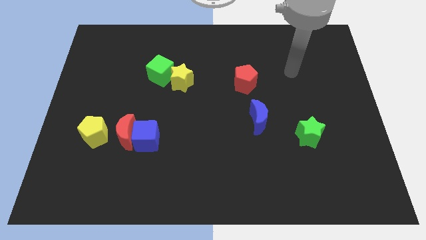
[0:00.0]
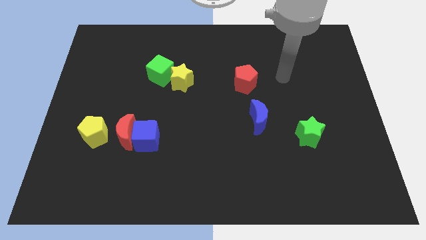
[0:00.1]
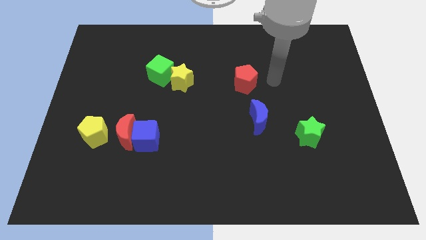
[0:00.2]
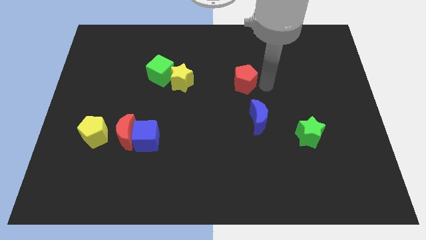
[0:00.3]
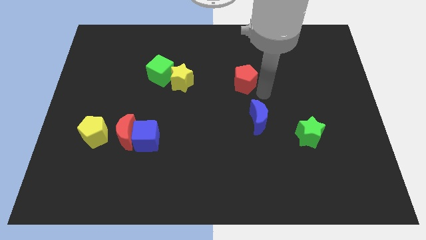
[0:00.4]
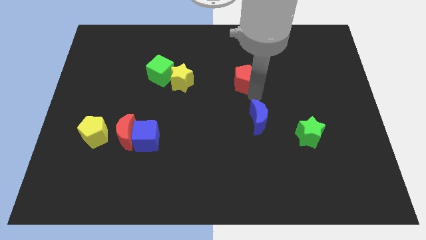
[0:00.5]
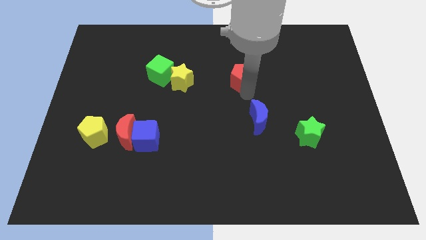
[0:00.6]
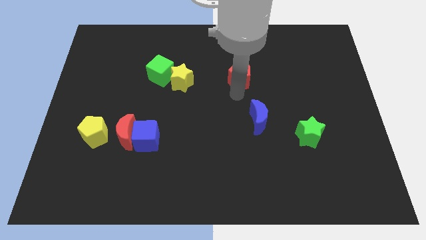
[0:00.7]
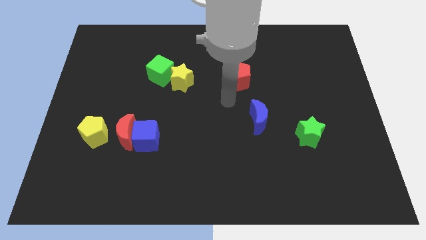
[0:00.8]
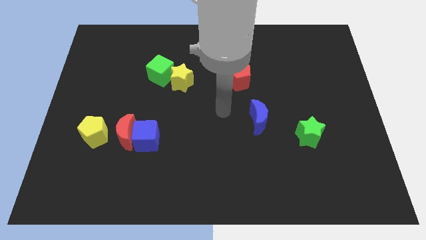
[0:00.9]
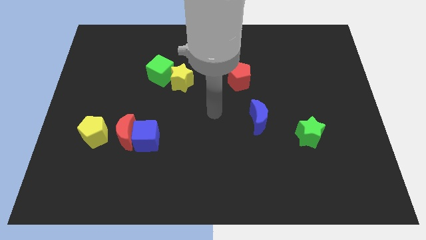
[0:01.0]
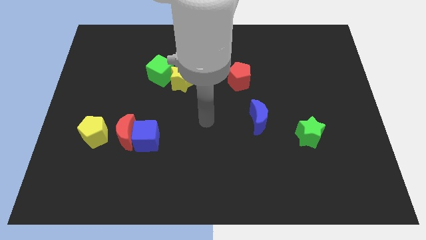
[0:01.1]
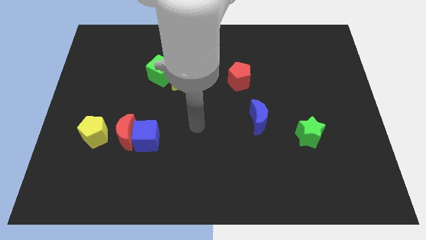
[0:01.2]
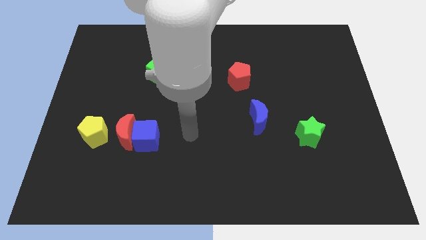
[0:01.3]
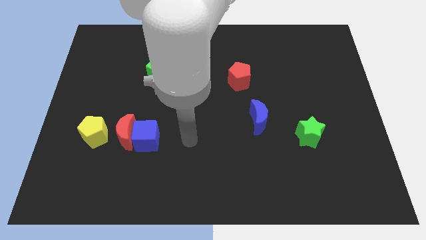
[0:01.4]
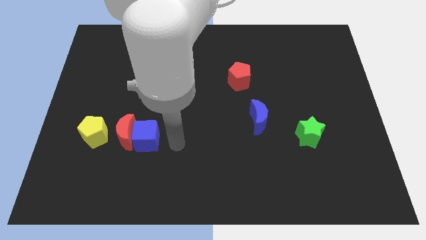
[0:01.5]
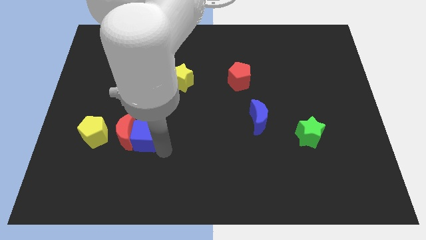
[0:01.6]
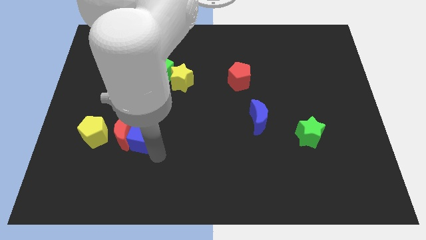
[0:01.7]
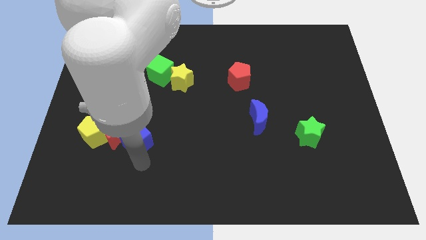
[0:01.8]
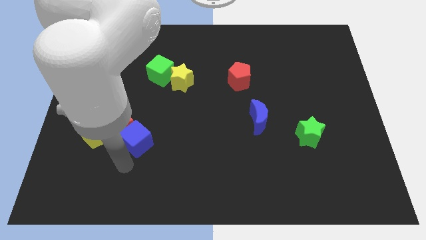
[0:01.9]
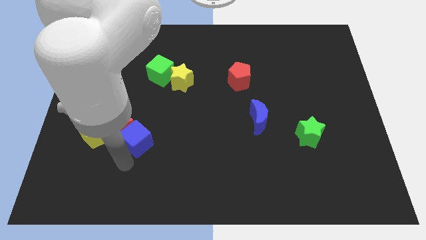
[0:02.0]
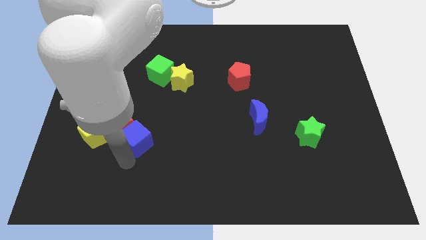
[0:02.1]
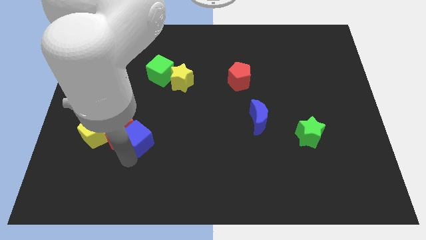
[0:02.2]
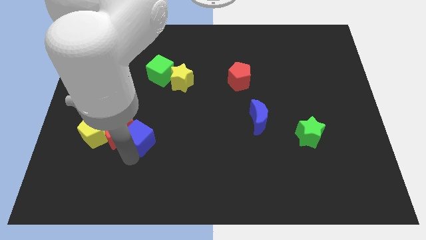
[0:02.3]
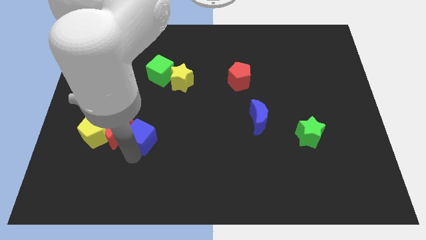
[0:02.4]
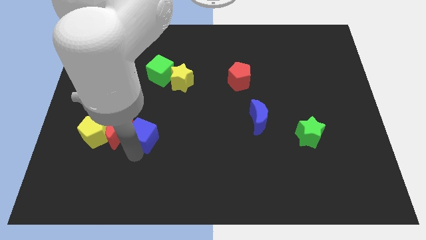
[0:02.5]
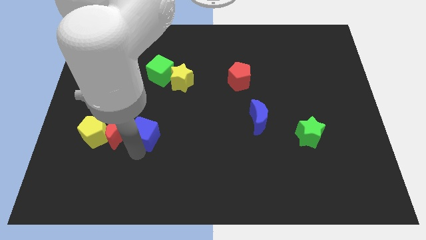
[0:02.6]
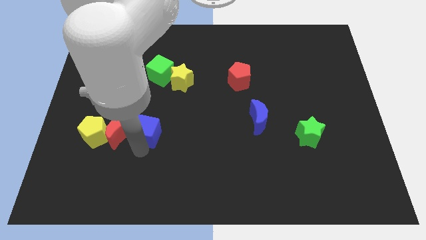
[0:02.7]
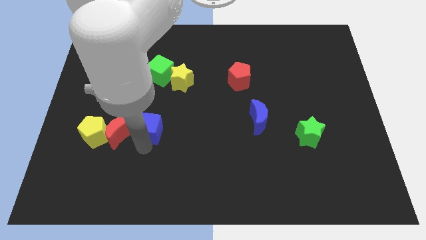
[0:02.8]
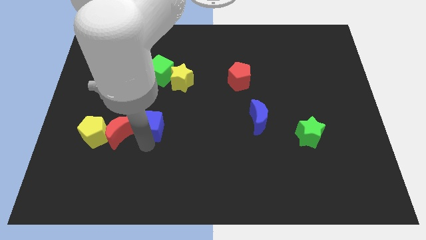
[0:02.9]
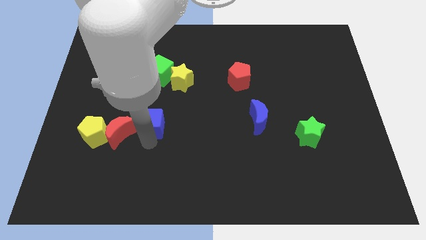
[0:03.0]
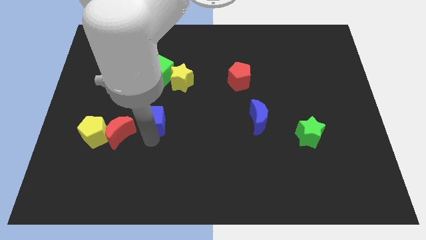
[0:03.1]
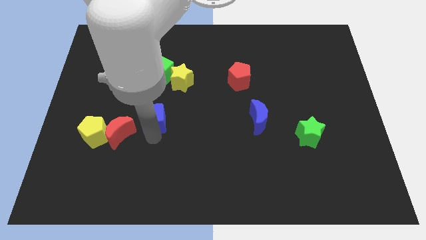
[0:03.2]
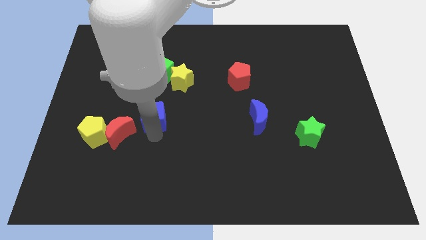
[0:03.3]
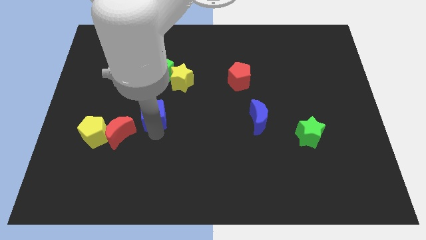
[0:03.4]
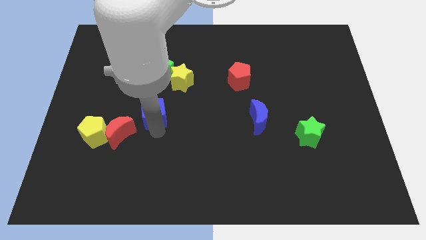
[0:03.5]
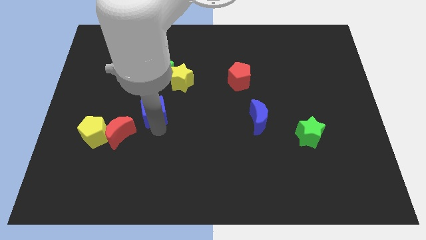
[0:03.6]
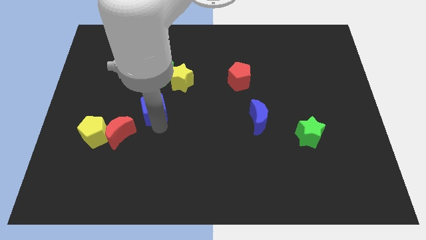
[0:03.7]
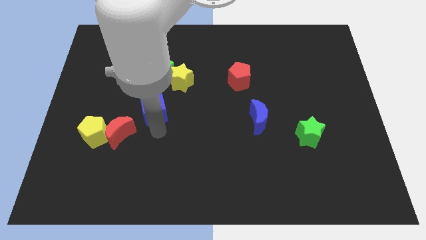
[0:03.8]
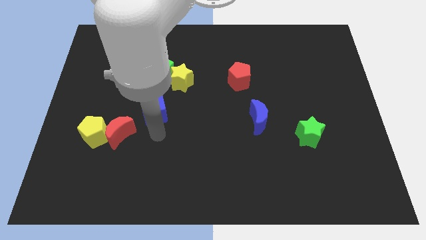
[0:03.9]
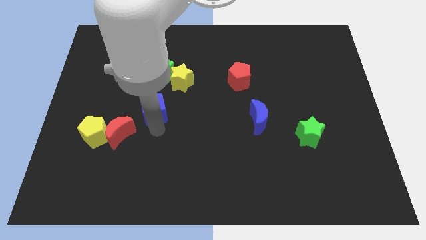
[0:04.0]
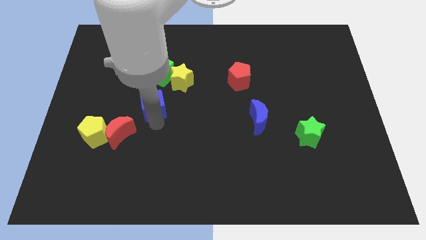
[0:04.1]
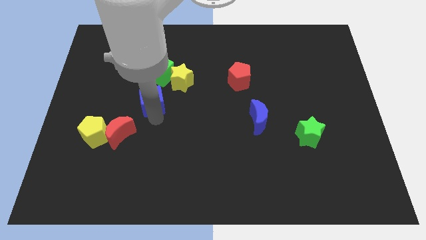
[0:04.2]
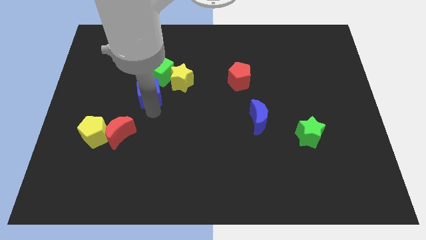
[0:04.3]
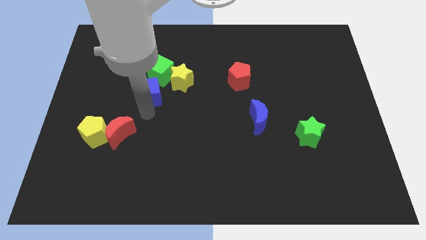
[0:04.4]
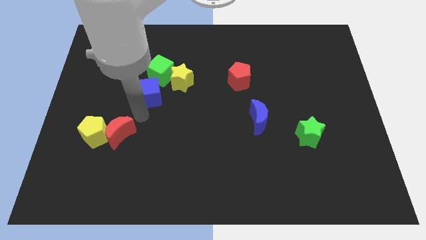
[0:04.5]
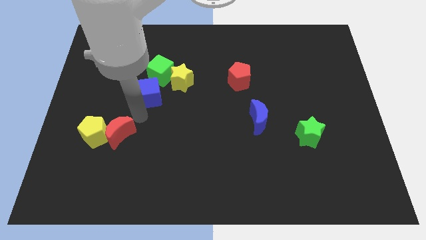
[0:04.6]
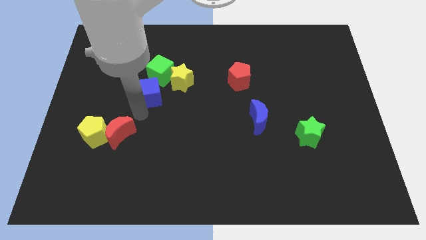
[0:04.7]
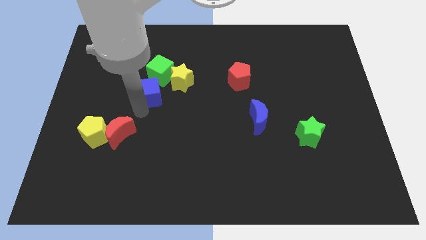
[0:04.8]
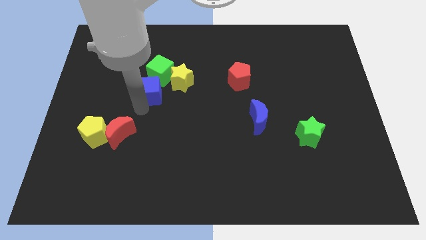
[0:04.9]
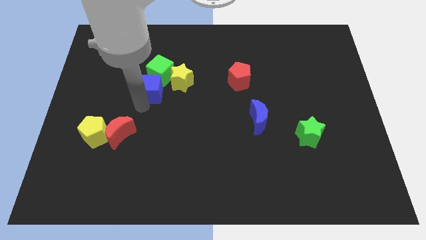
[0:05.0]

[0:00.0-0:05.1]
put the blue cube close to the green cube

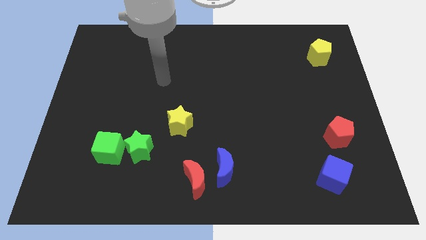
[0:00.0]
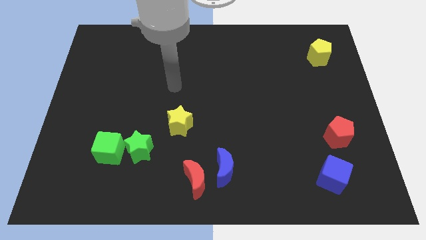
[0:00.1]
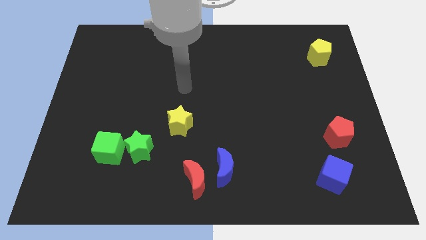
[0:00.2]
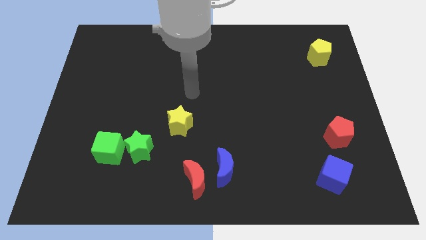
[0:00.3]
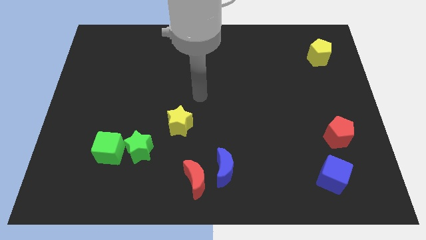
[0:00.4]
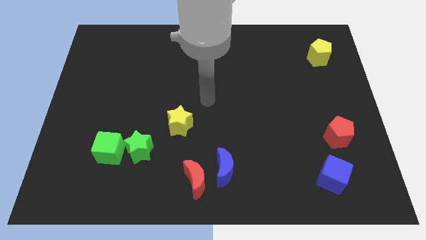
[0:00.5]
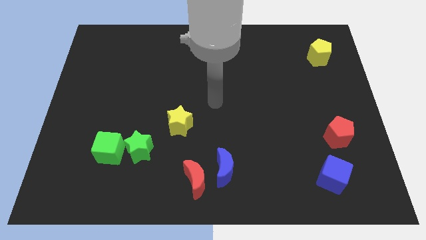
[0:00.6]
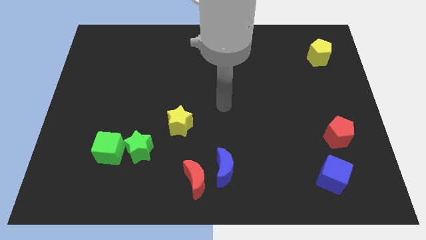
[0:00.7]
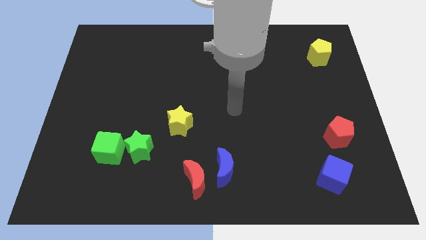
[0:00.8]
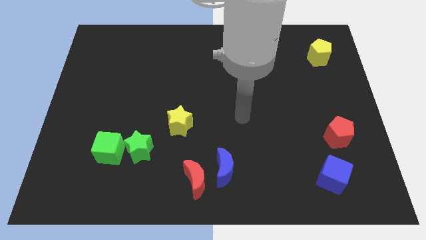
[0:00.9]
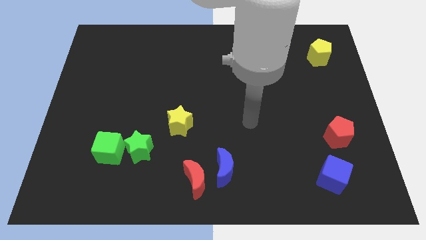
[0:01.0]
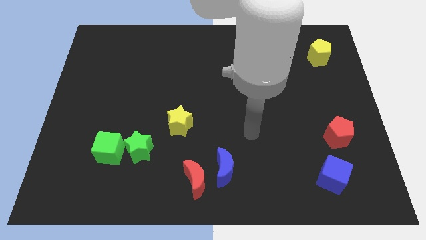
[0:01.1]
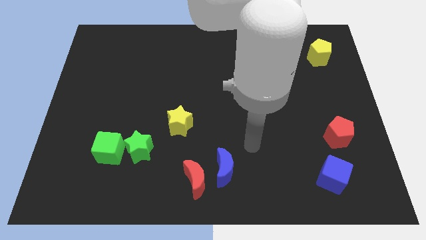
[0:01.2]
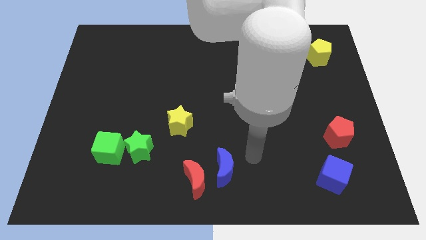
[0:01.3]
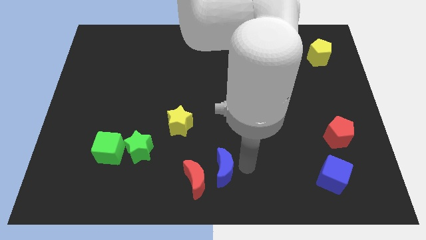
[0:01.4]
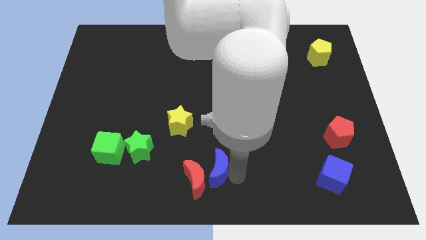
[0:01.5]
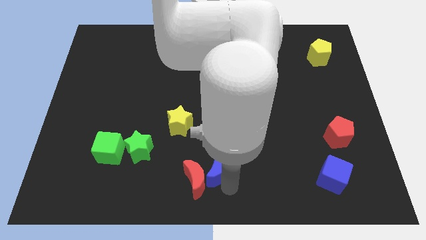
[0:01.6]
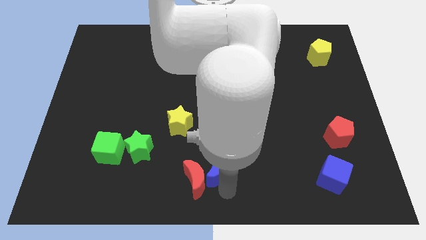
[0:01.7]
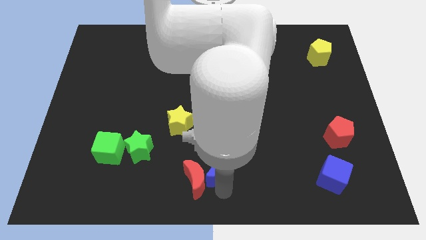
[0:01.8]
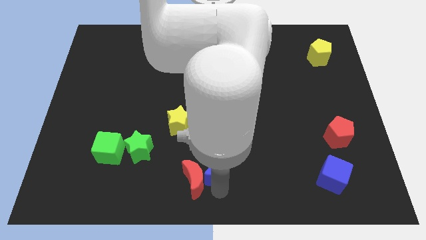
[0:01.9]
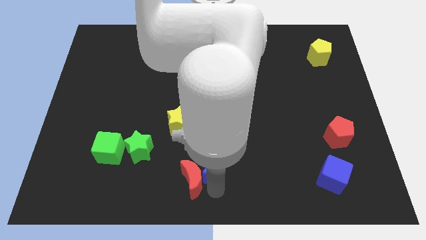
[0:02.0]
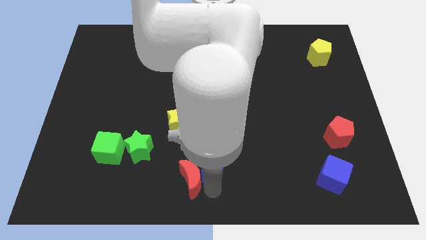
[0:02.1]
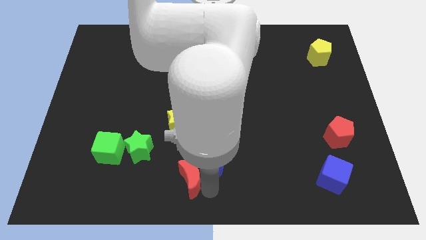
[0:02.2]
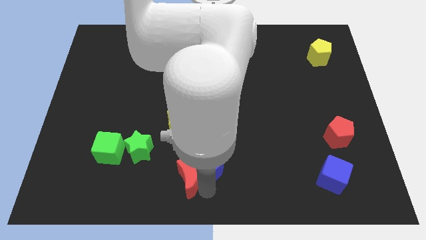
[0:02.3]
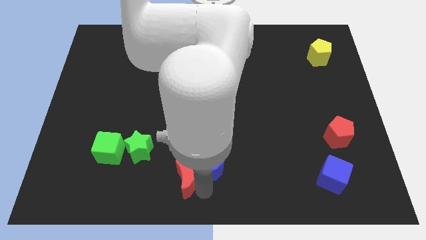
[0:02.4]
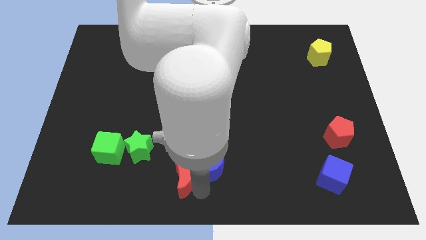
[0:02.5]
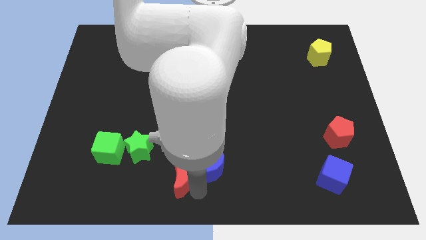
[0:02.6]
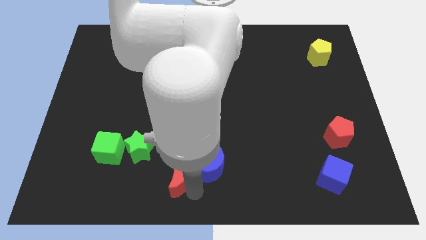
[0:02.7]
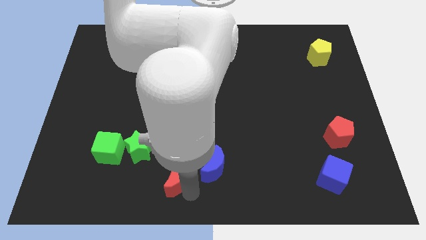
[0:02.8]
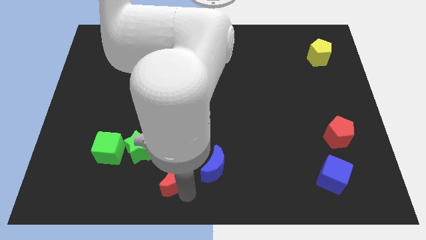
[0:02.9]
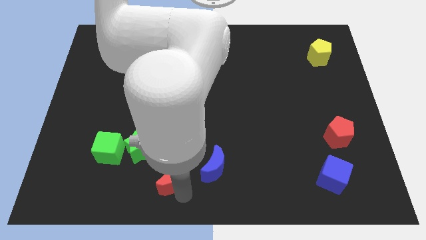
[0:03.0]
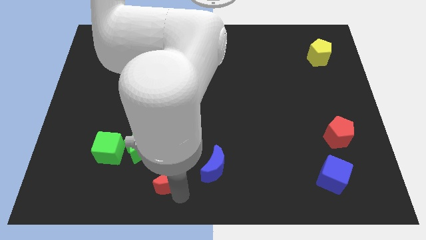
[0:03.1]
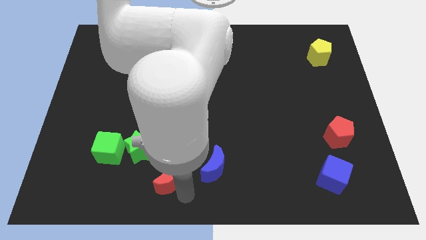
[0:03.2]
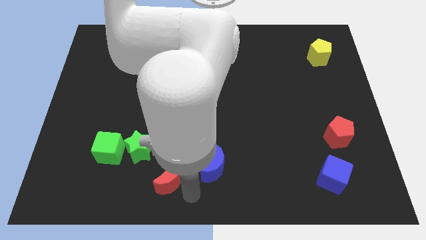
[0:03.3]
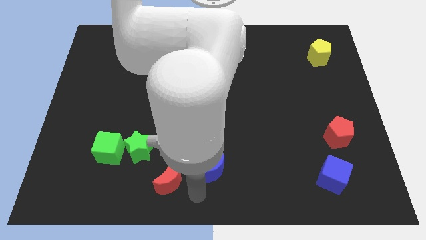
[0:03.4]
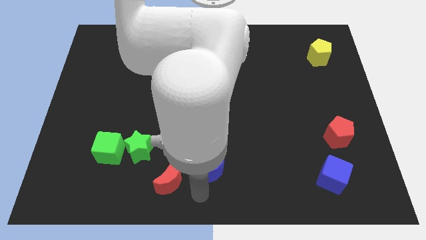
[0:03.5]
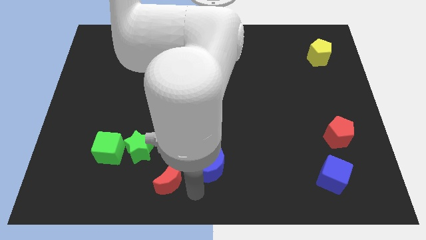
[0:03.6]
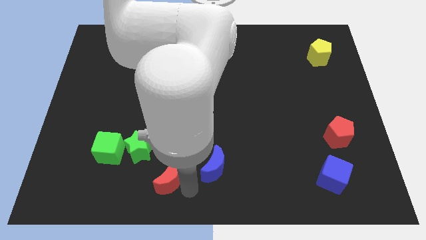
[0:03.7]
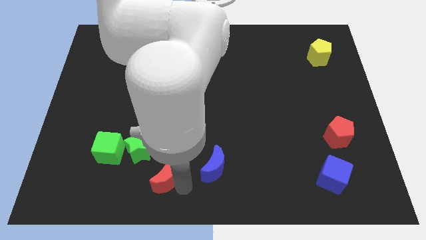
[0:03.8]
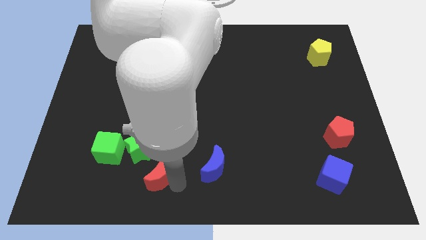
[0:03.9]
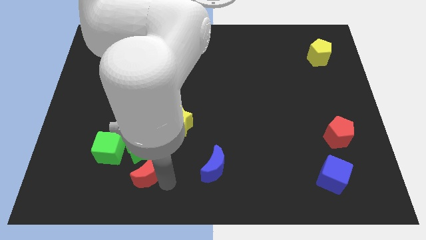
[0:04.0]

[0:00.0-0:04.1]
slide the red moon towards the green star
